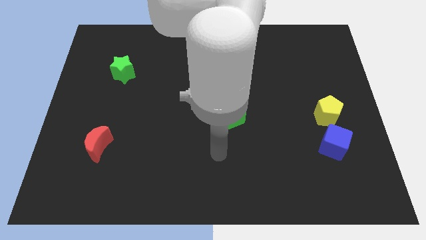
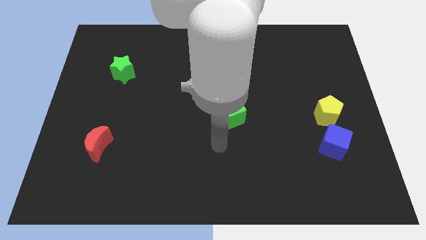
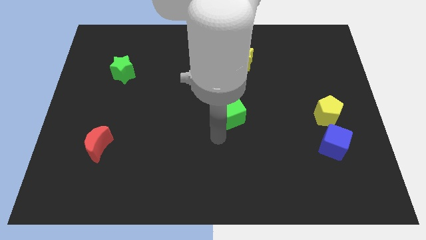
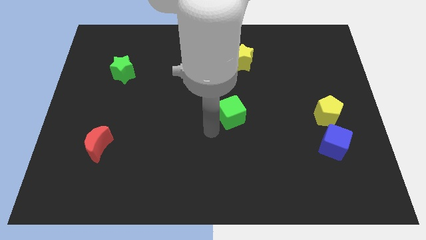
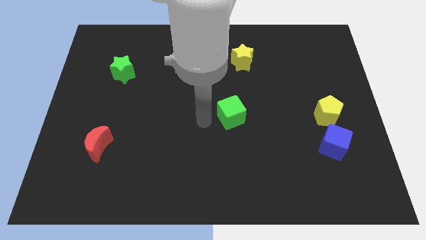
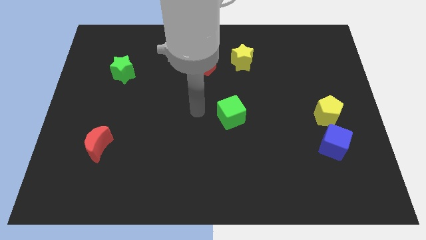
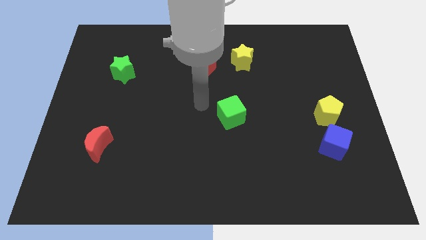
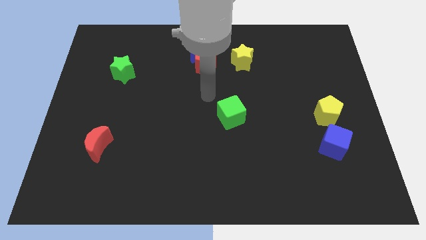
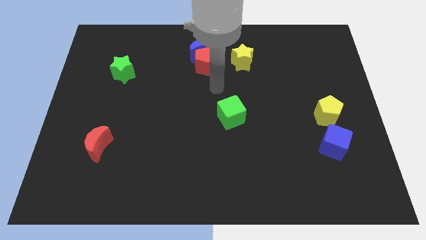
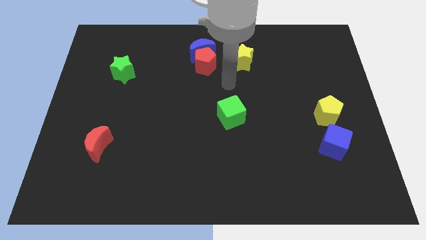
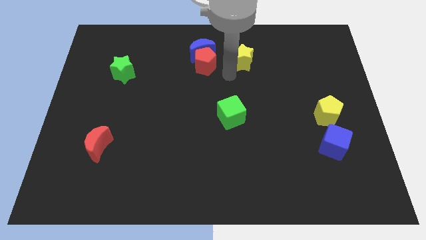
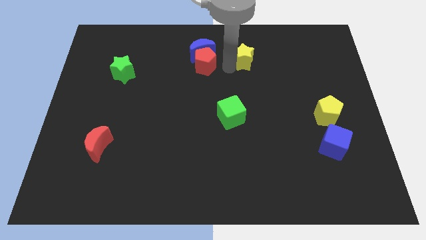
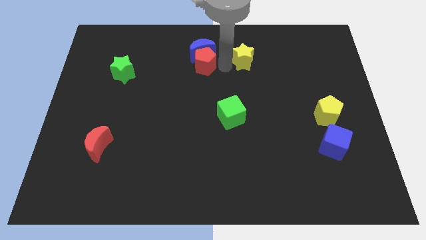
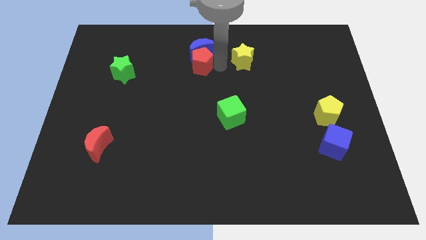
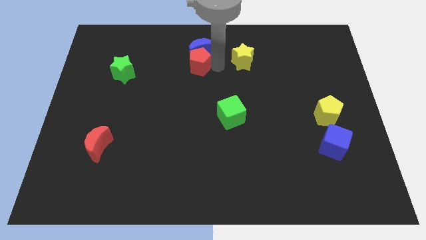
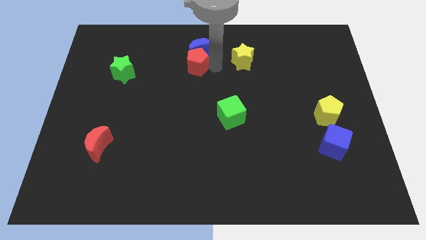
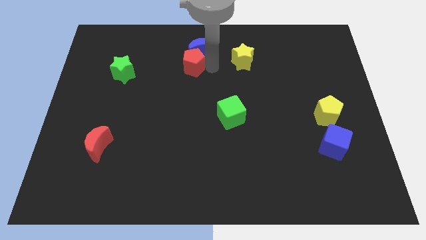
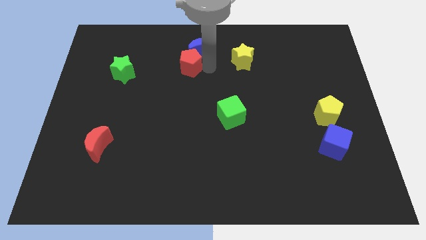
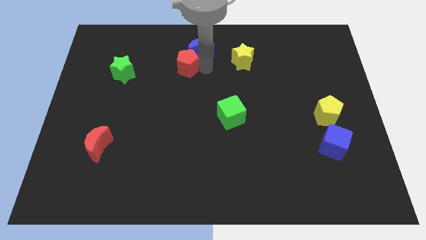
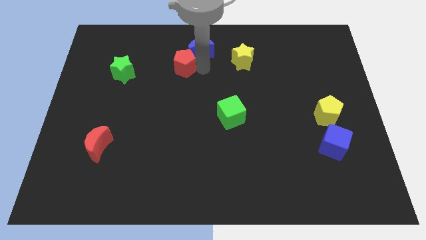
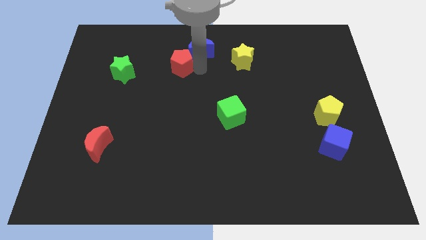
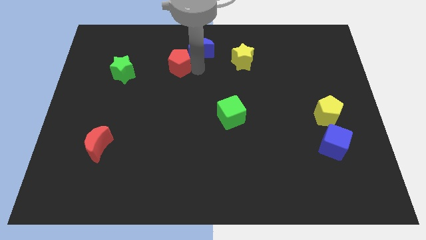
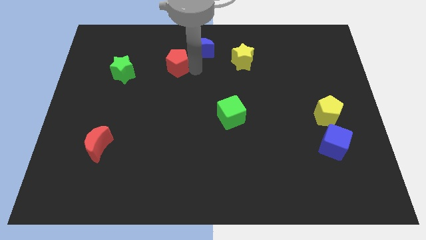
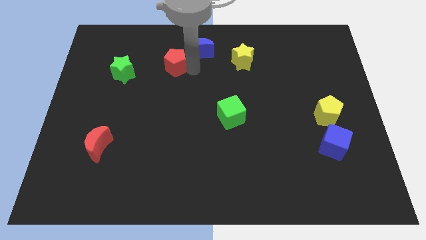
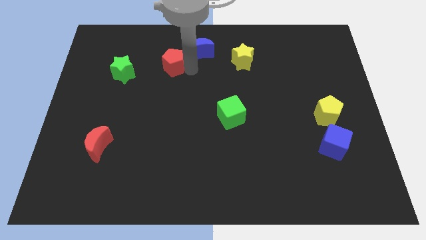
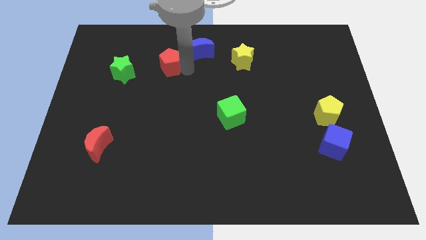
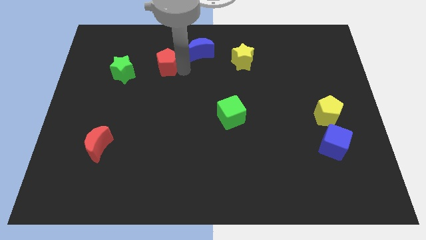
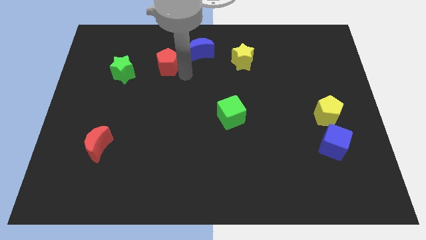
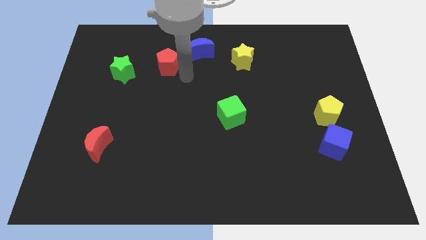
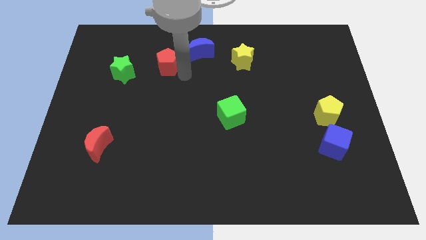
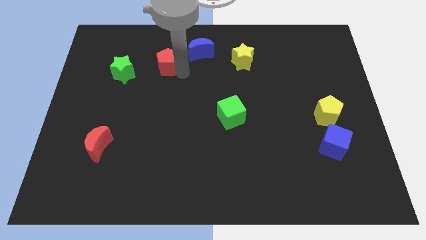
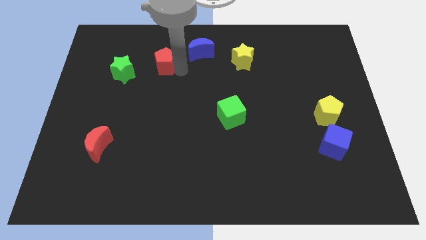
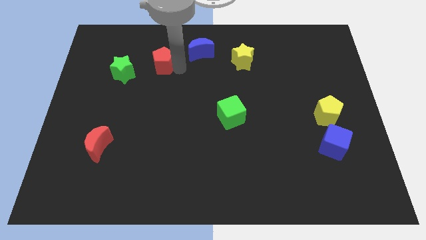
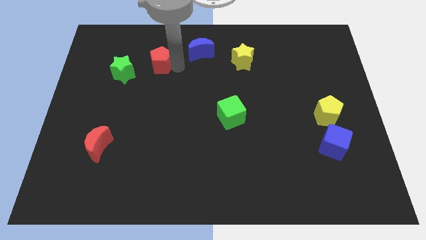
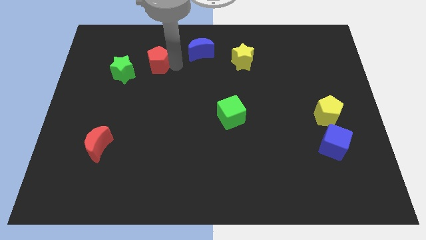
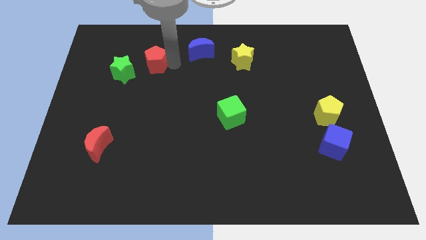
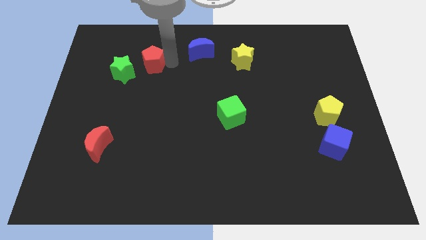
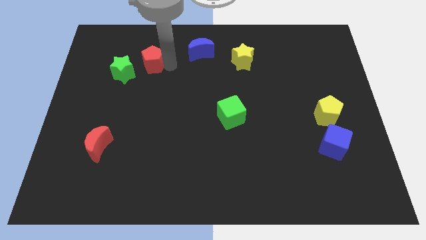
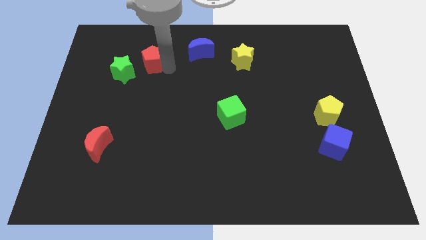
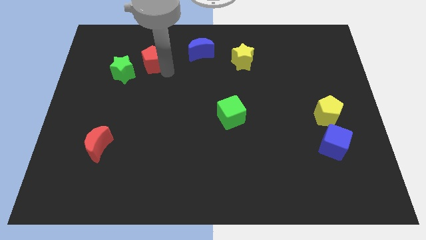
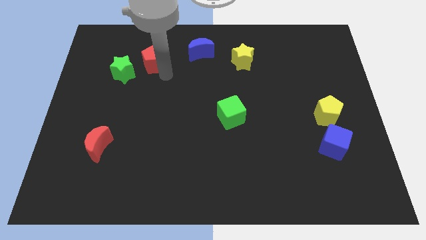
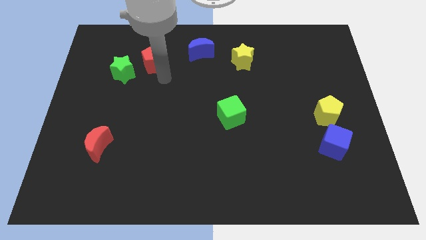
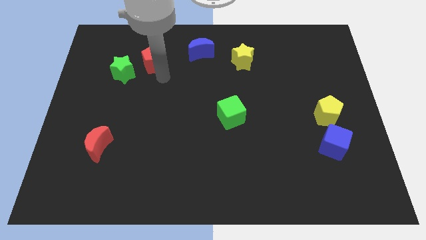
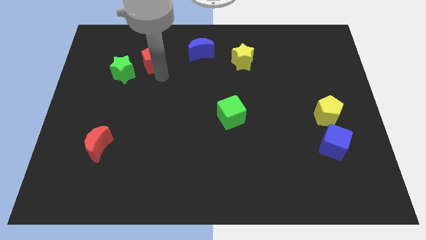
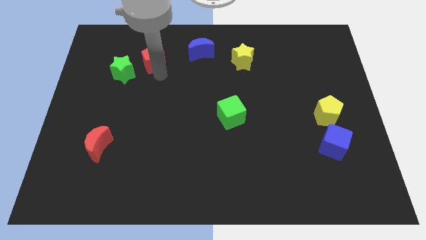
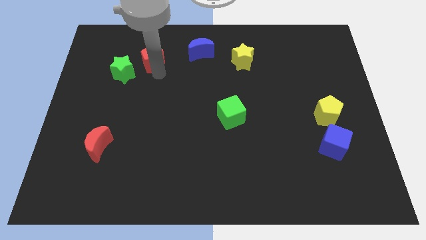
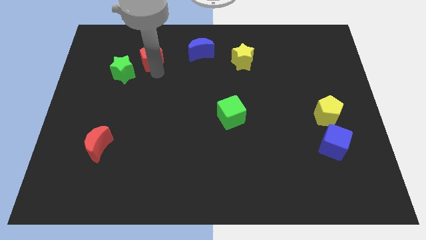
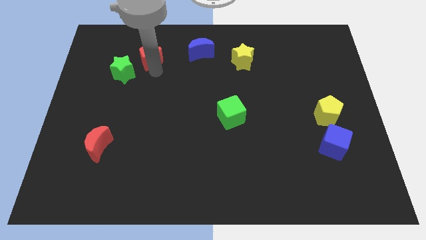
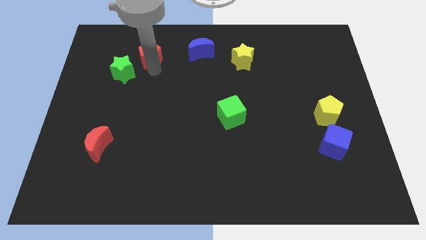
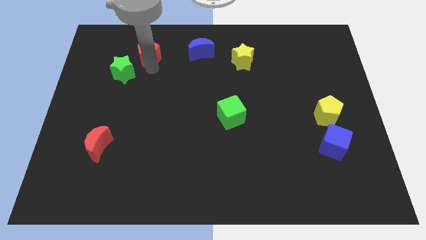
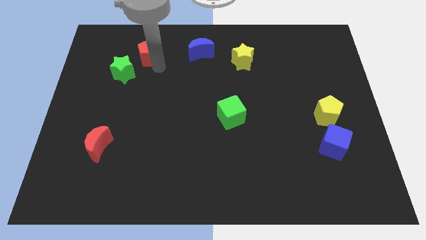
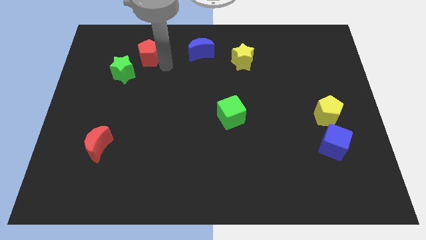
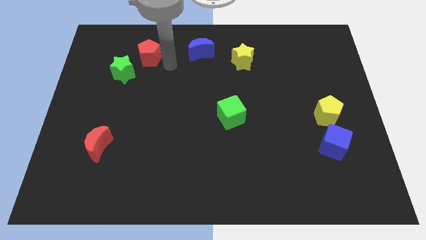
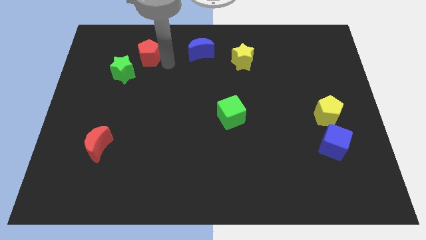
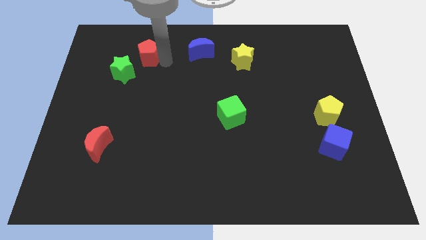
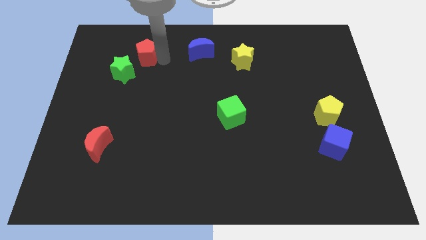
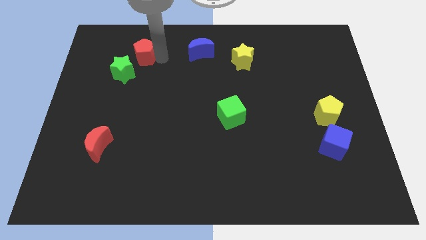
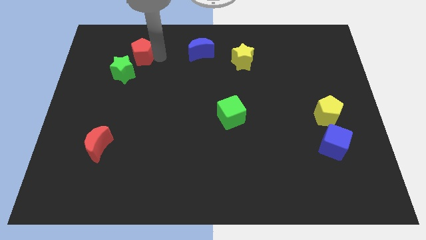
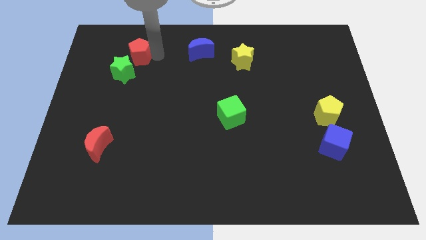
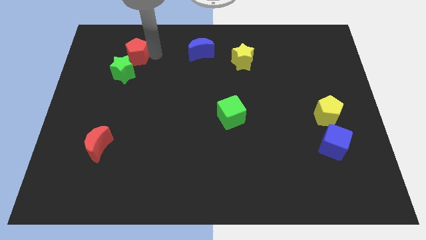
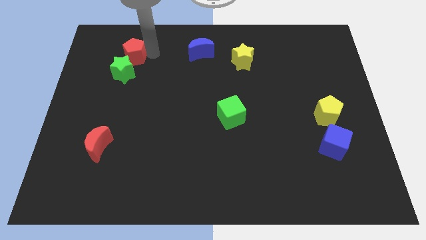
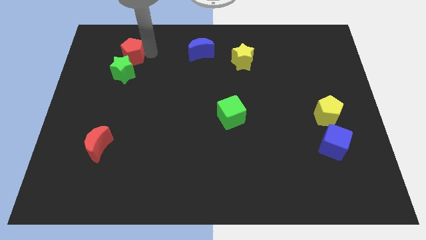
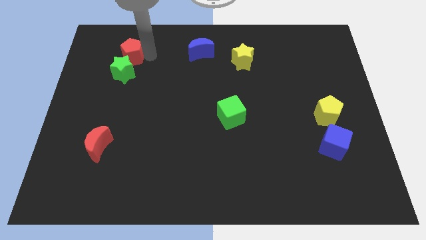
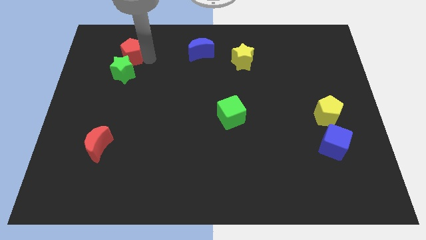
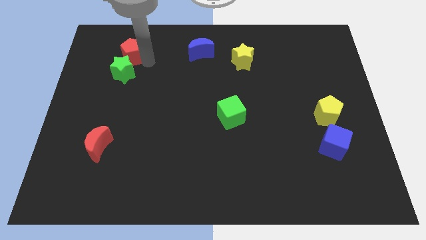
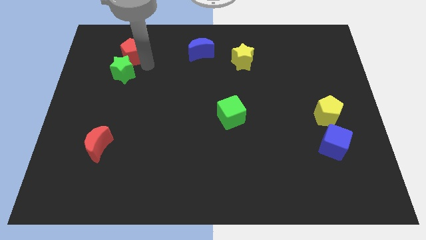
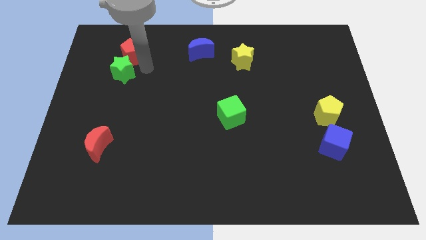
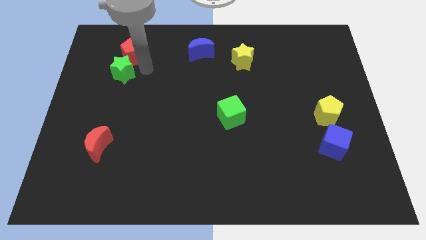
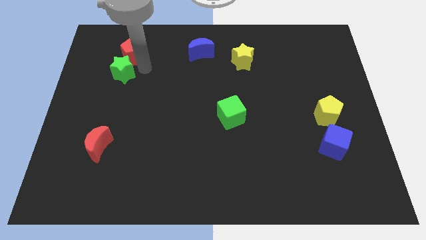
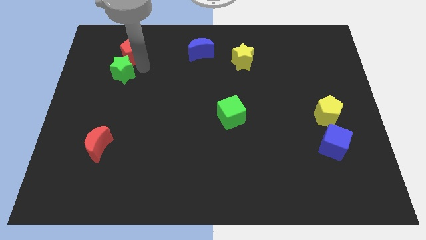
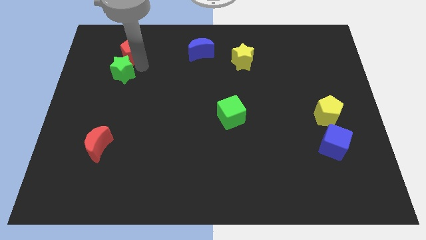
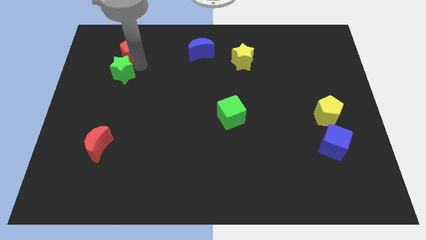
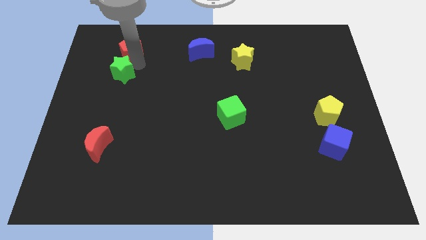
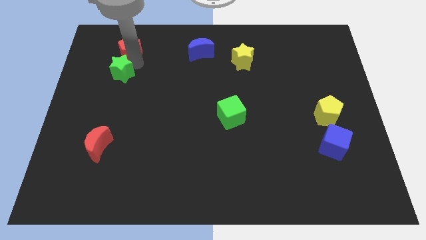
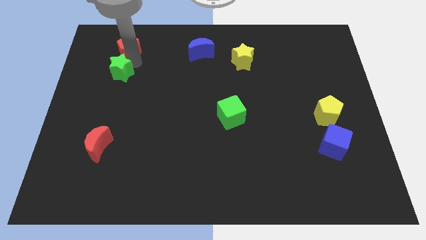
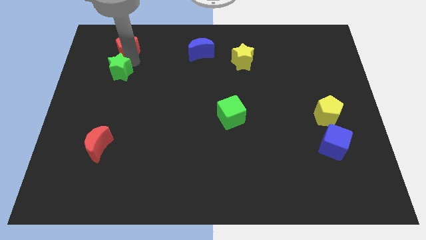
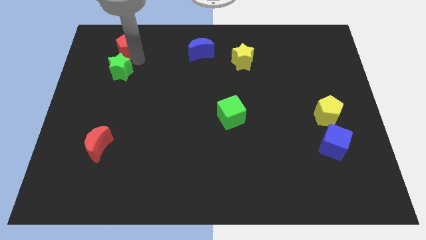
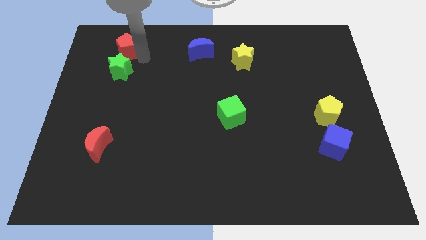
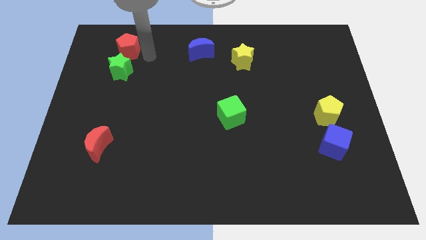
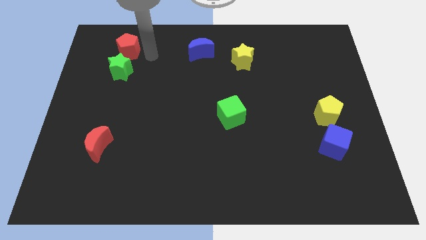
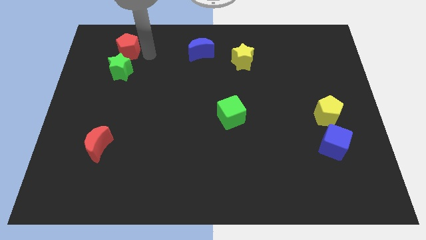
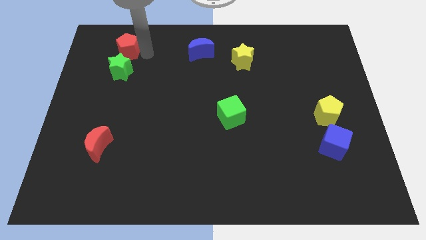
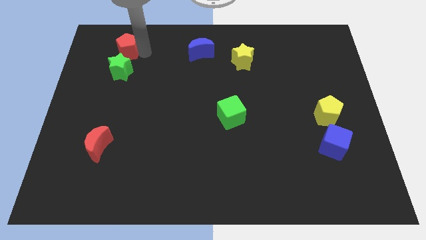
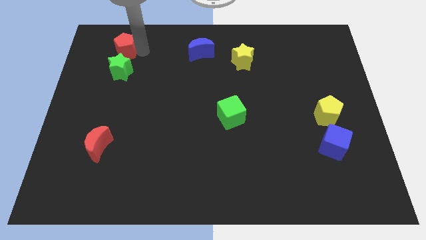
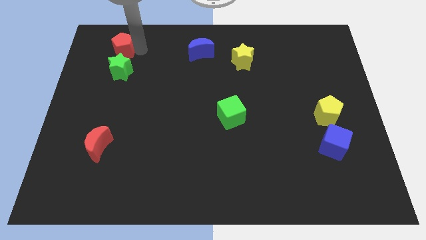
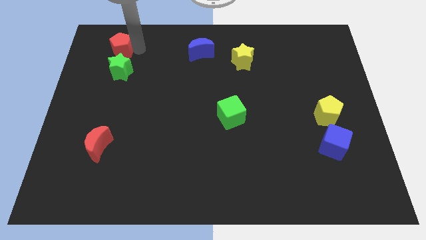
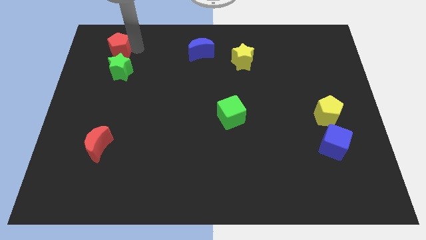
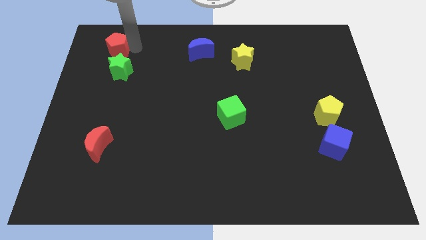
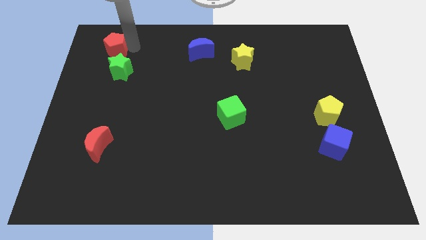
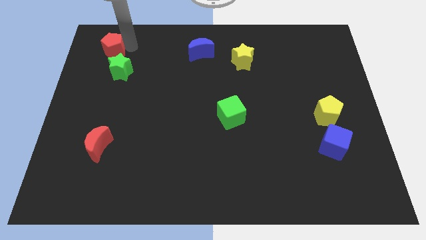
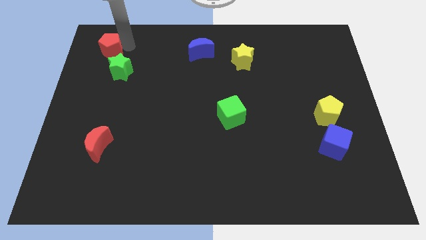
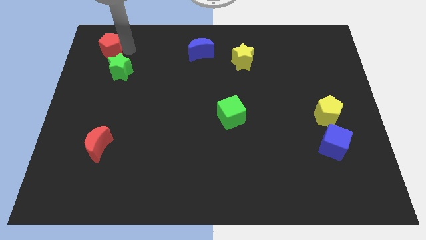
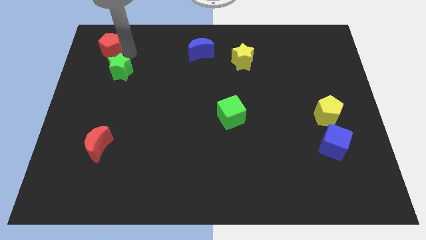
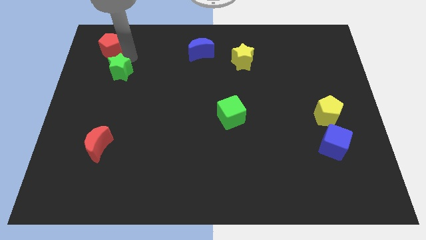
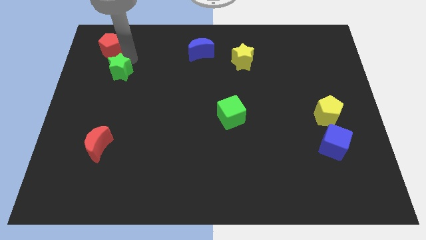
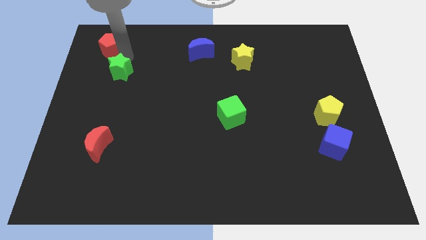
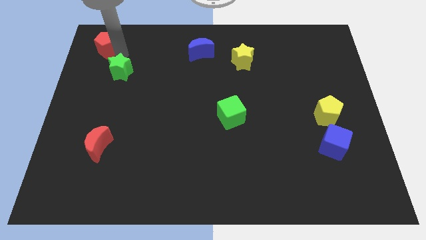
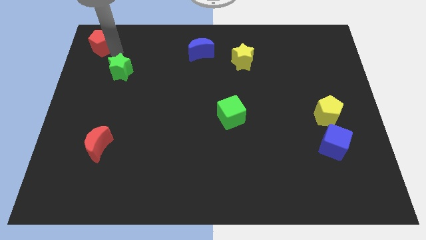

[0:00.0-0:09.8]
put the red pentagon to the top left
